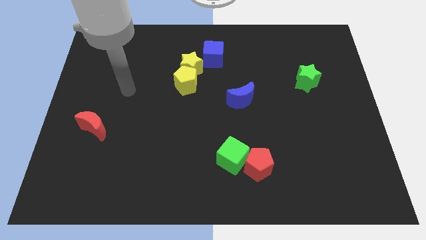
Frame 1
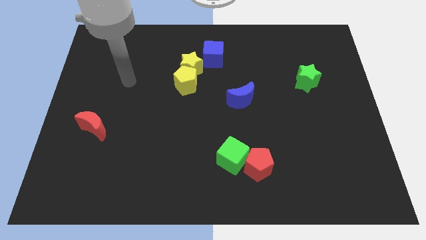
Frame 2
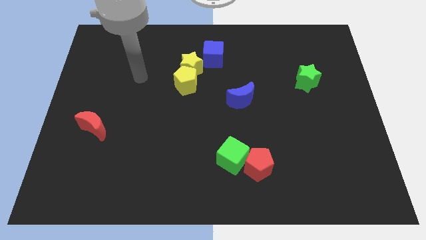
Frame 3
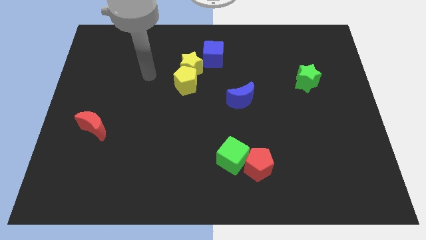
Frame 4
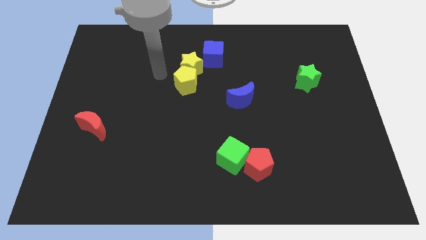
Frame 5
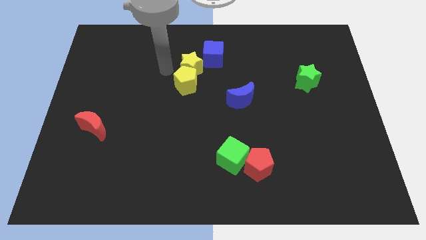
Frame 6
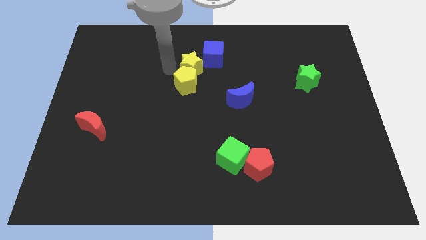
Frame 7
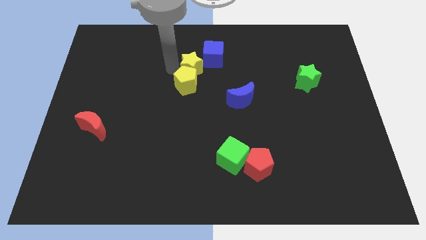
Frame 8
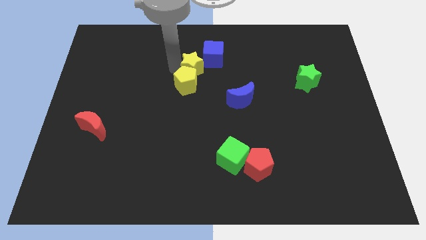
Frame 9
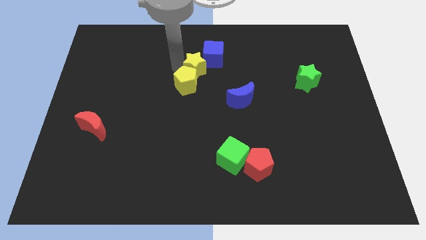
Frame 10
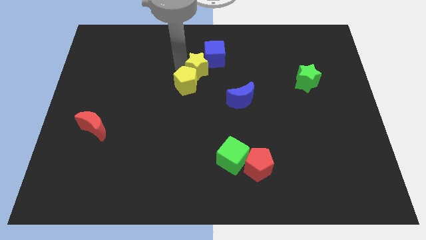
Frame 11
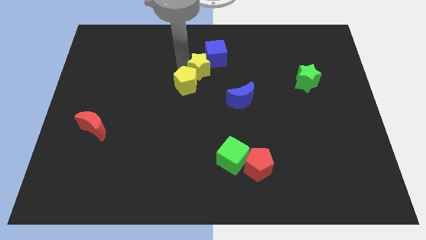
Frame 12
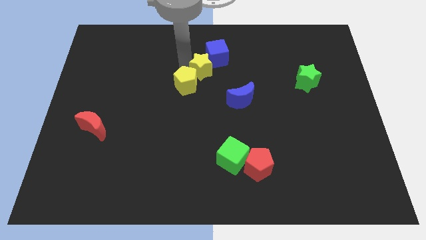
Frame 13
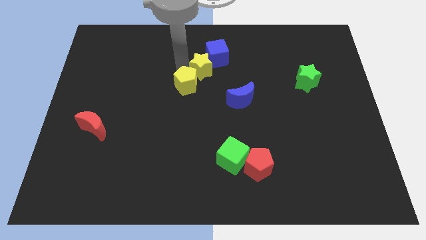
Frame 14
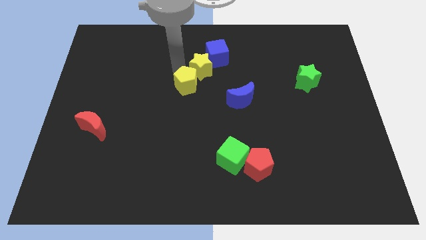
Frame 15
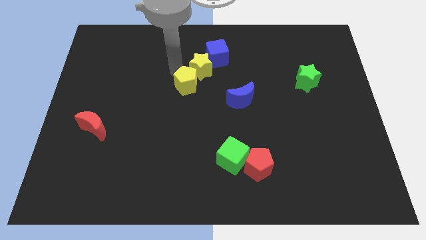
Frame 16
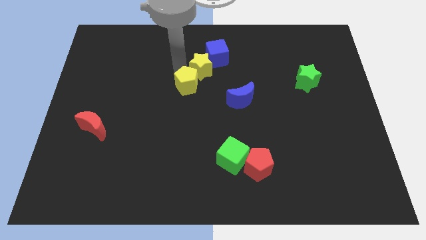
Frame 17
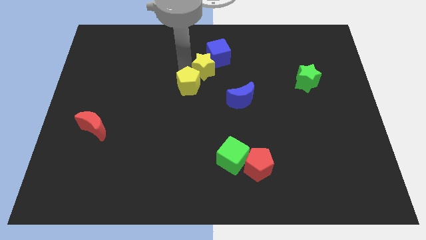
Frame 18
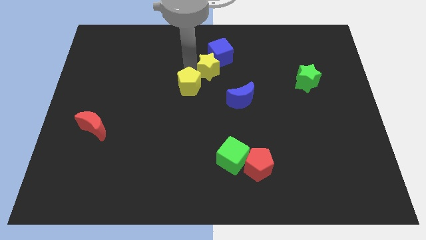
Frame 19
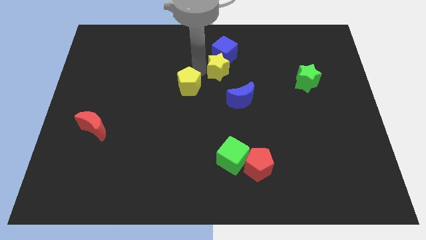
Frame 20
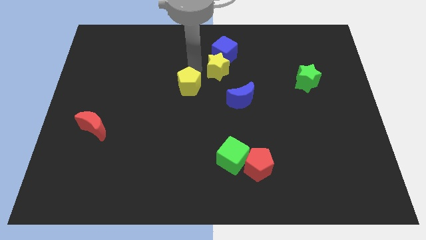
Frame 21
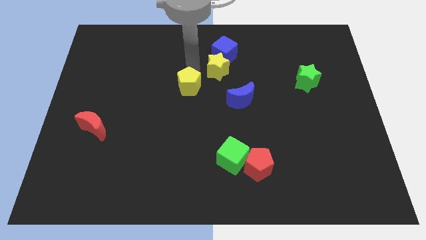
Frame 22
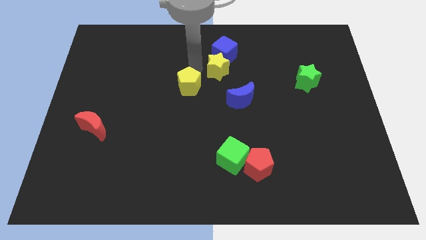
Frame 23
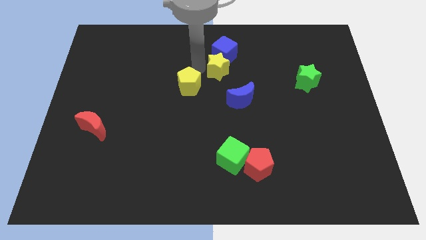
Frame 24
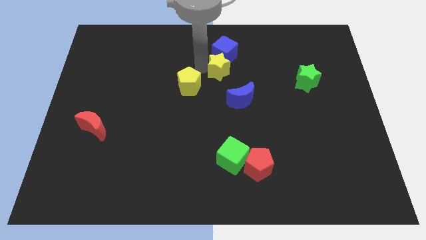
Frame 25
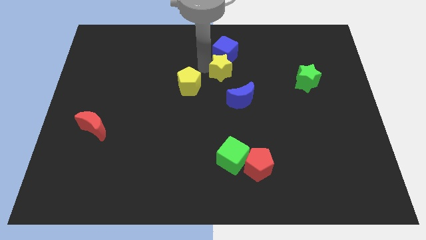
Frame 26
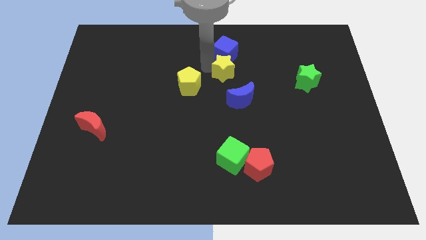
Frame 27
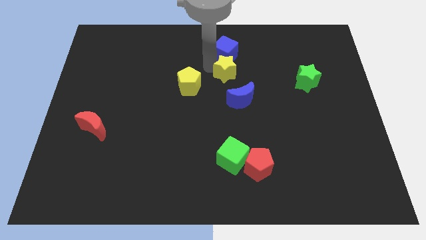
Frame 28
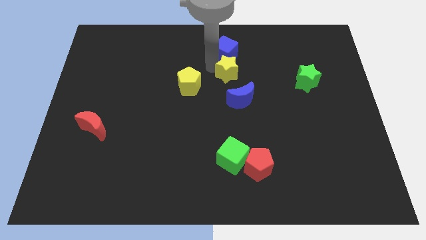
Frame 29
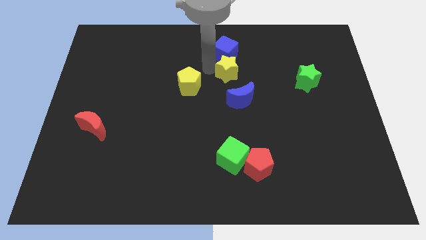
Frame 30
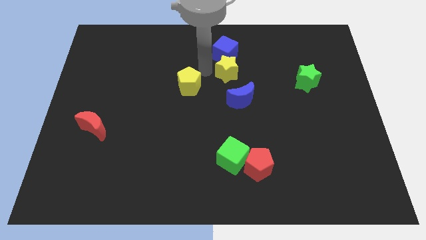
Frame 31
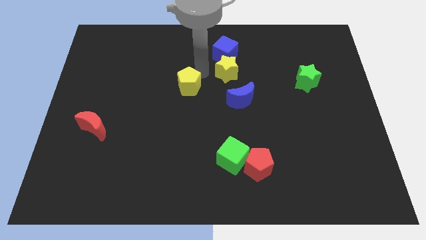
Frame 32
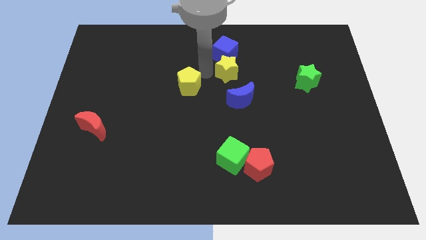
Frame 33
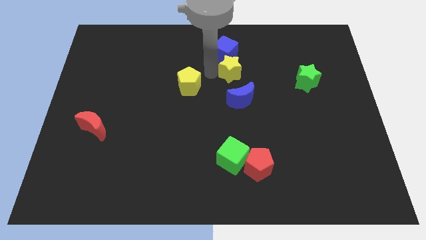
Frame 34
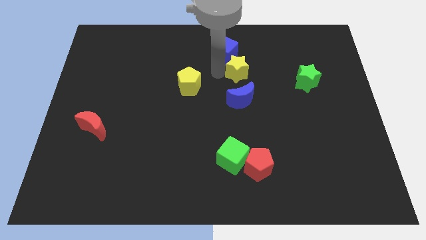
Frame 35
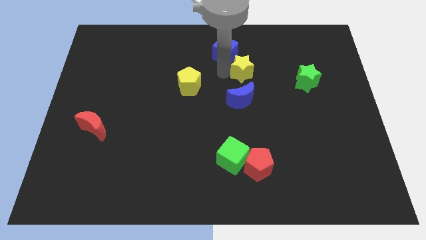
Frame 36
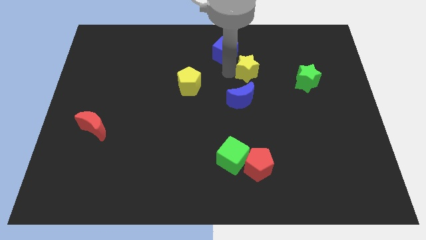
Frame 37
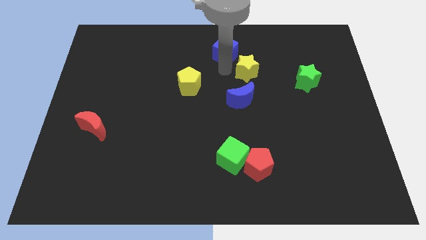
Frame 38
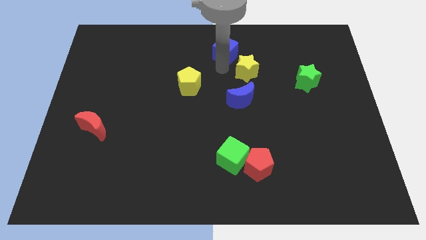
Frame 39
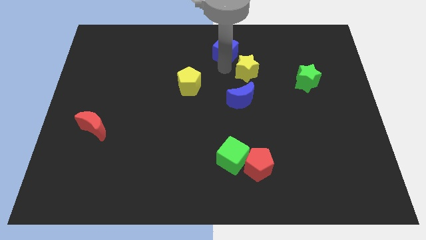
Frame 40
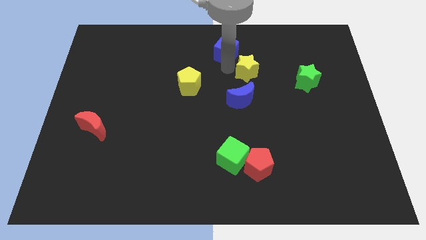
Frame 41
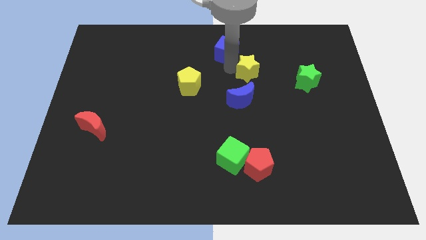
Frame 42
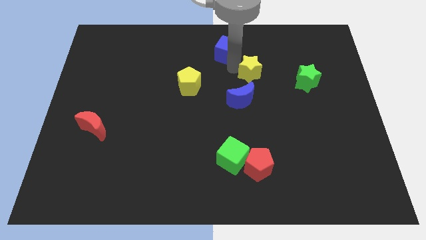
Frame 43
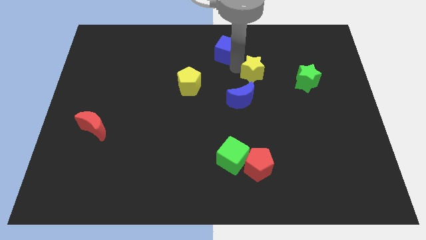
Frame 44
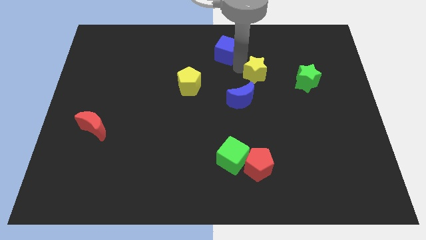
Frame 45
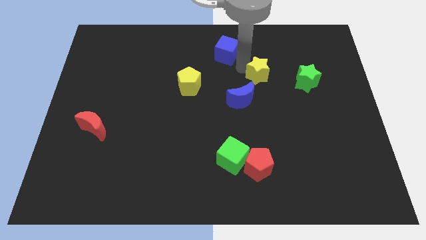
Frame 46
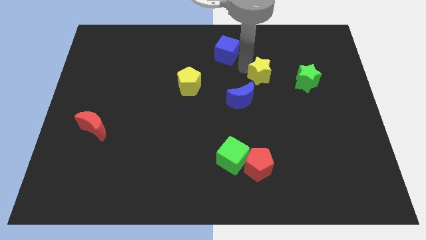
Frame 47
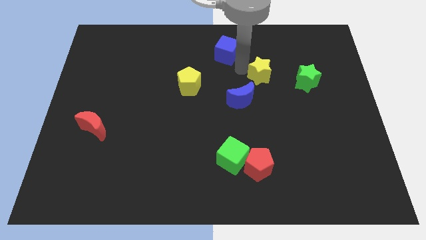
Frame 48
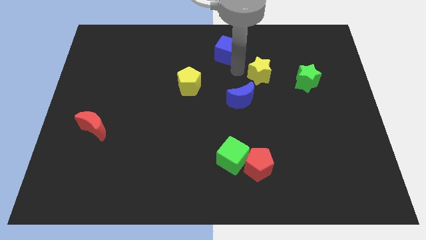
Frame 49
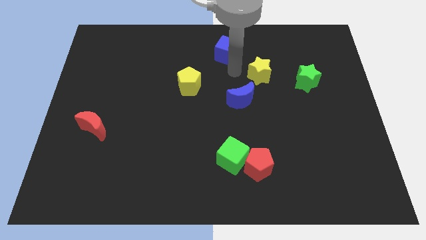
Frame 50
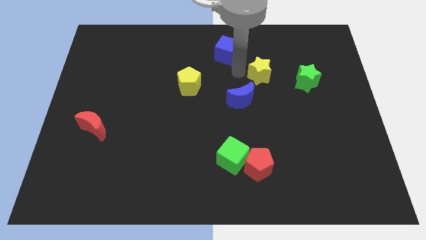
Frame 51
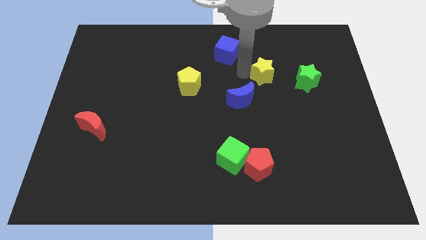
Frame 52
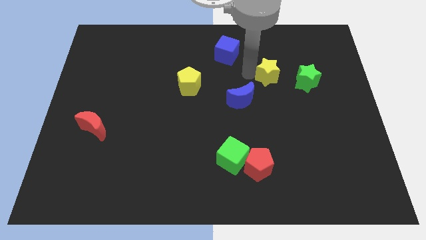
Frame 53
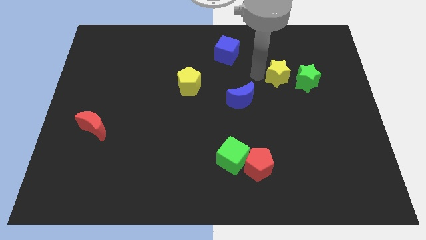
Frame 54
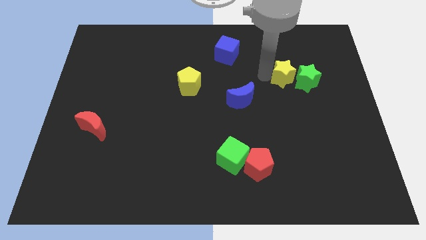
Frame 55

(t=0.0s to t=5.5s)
move the yellow star next to the green star
